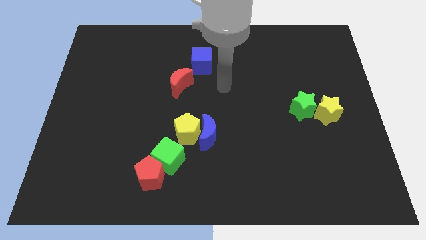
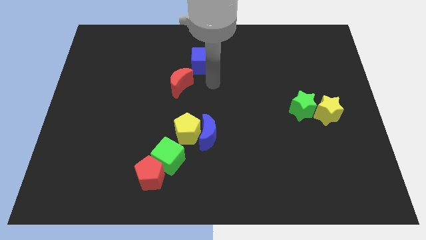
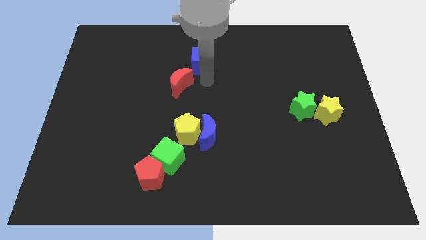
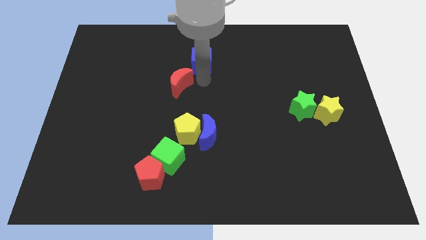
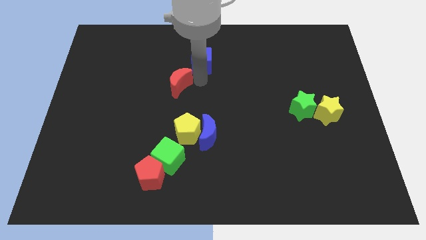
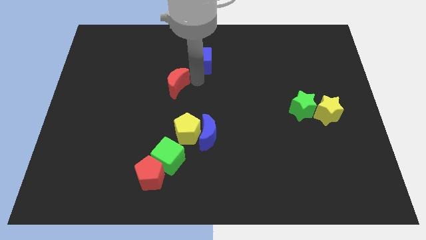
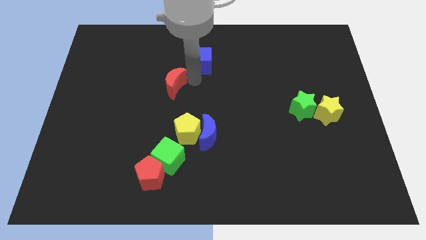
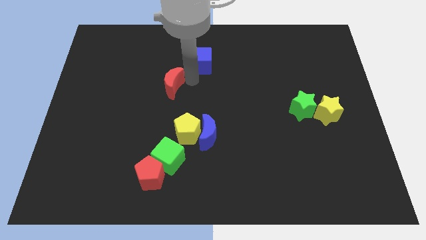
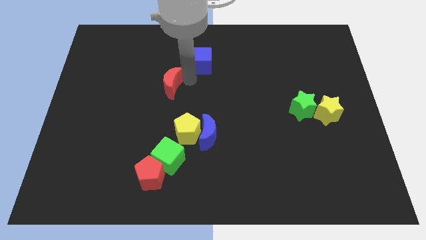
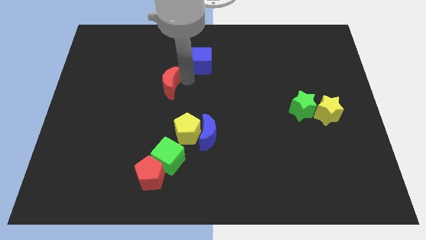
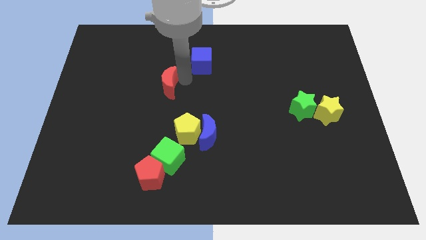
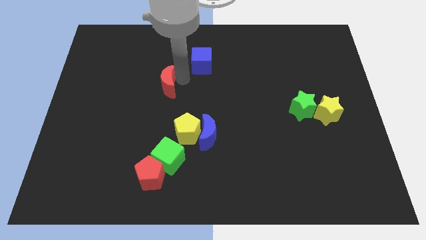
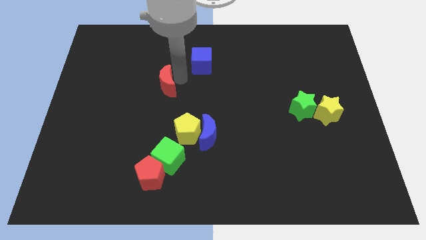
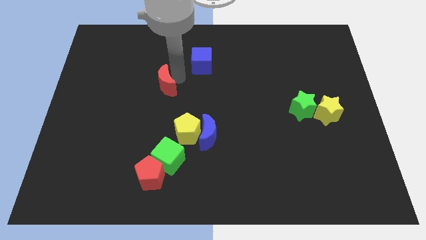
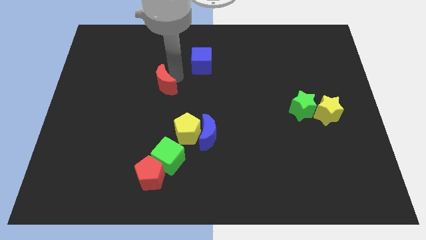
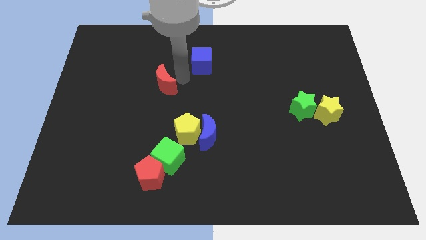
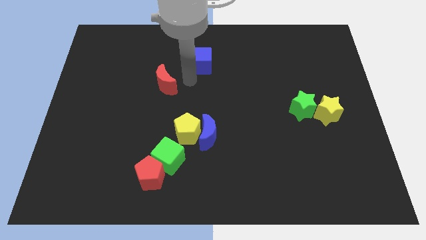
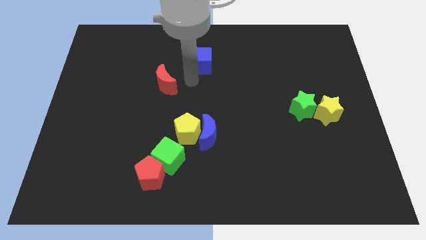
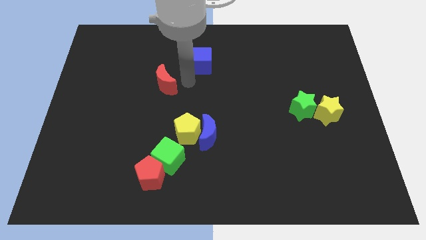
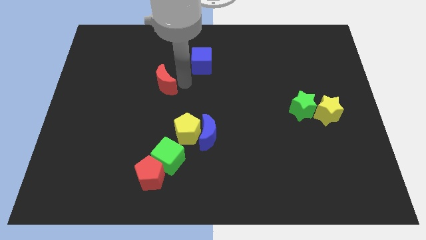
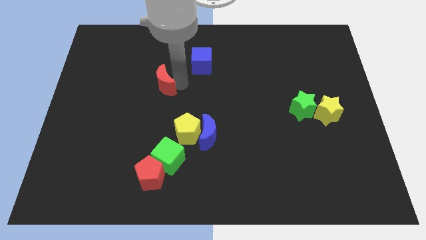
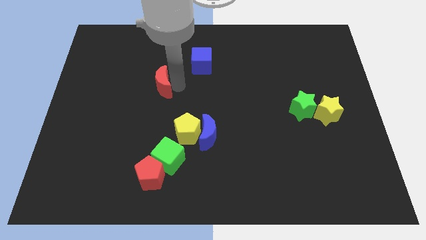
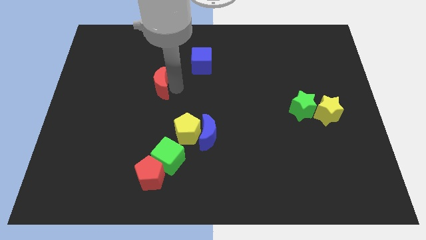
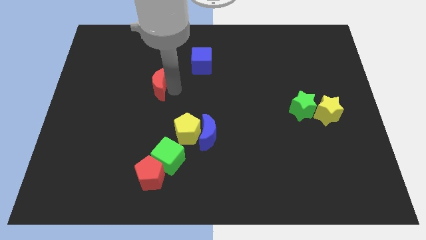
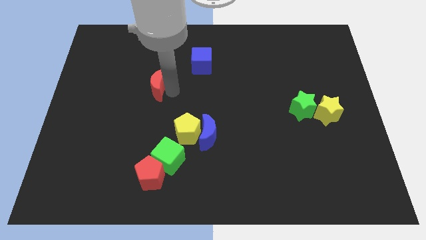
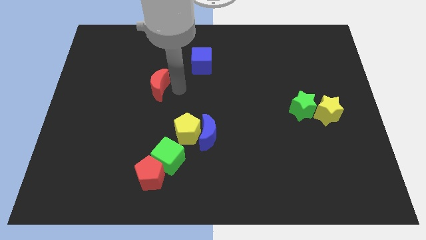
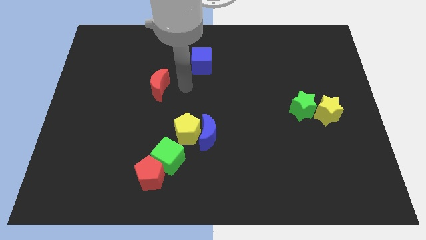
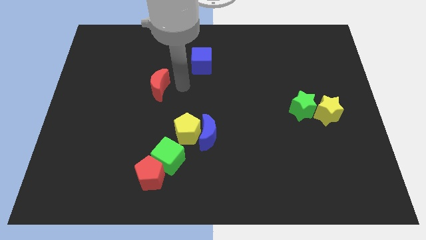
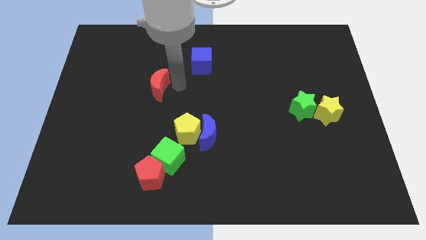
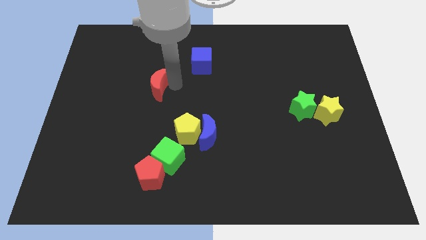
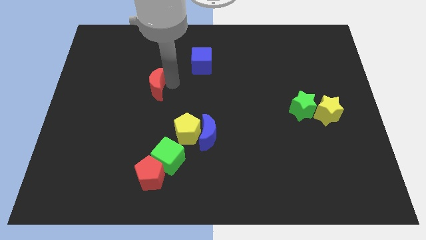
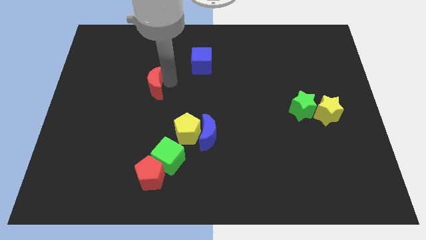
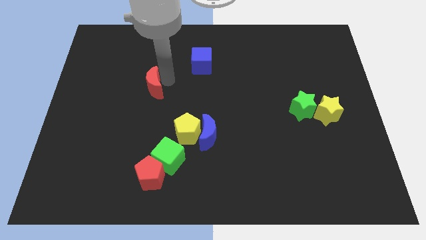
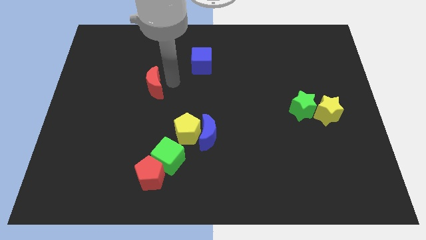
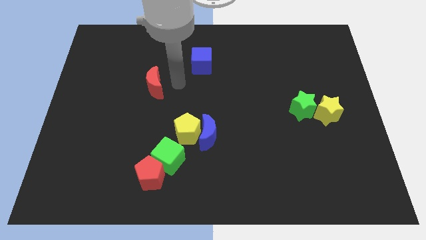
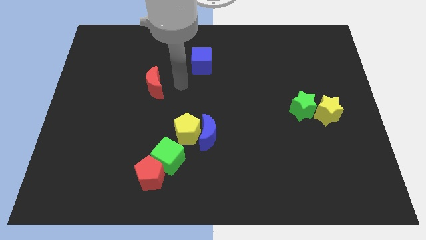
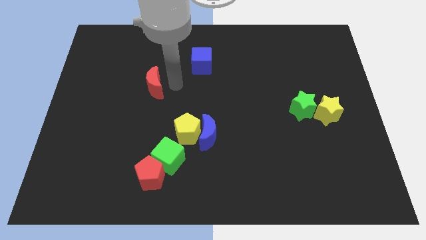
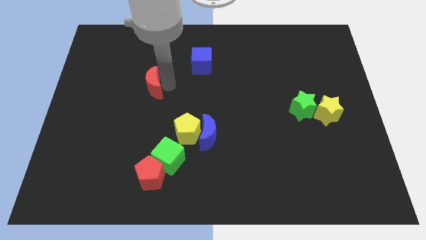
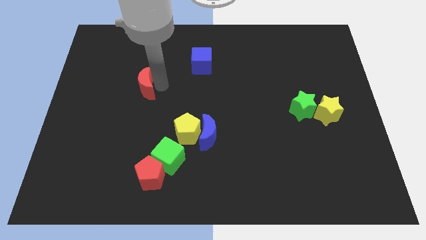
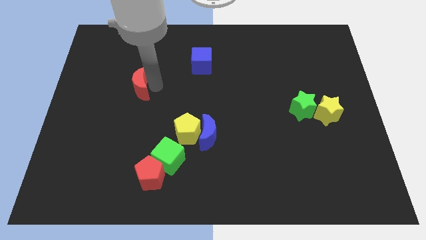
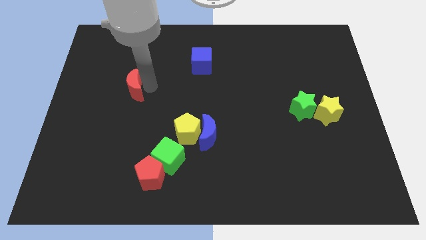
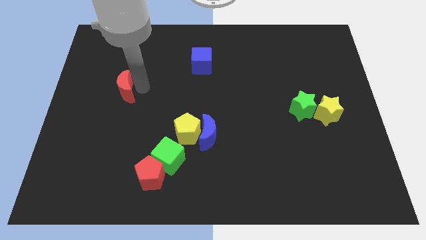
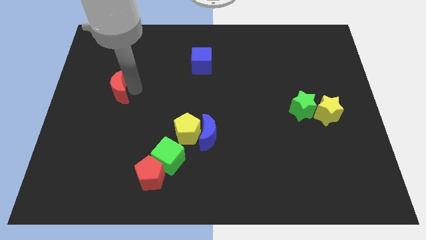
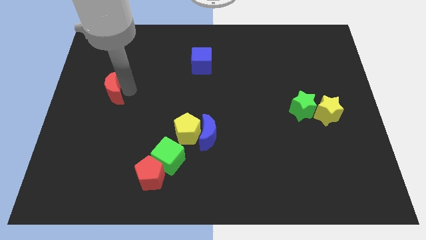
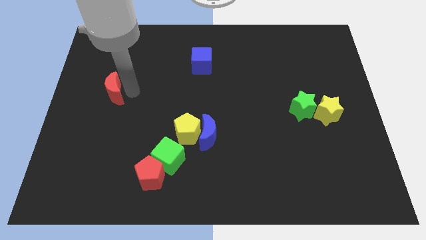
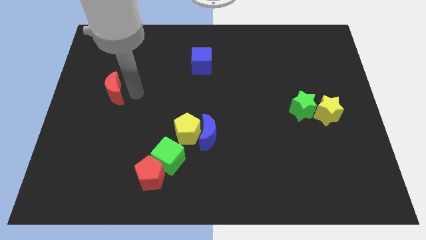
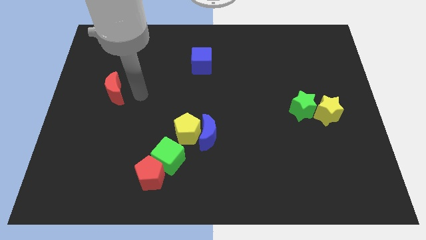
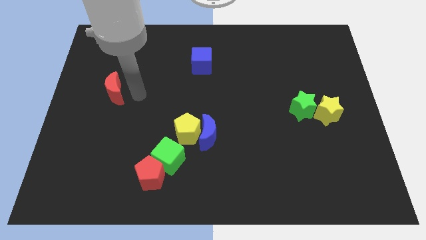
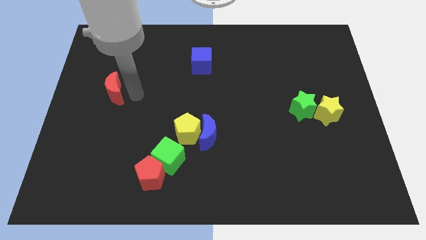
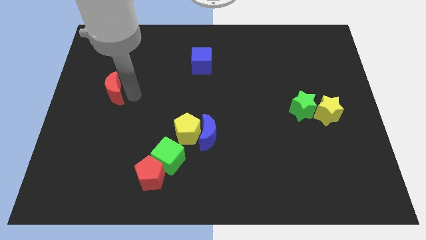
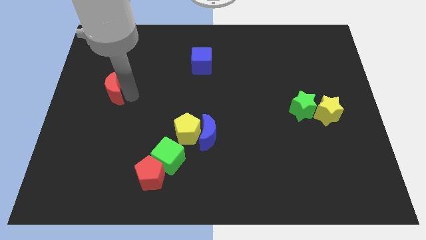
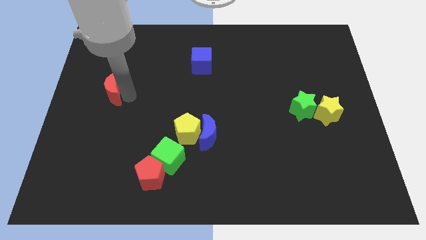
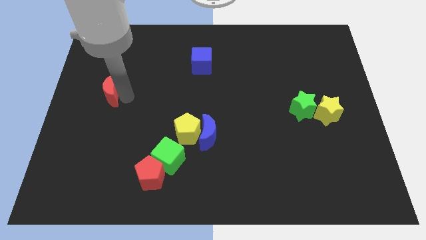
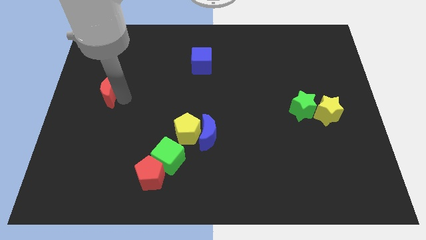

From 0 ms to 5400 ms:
push the red moon to the center left
